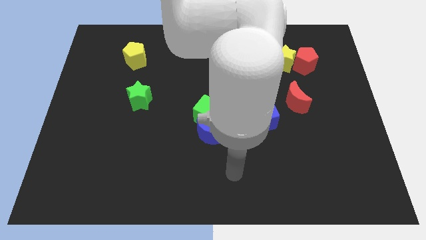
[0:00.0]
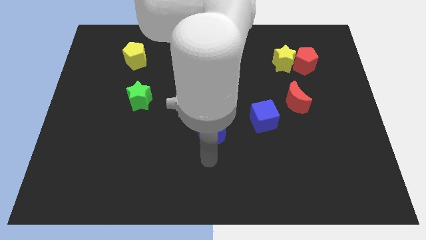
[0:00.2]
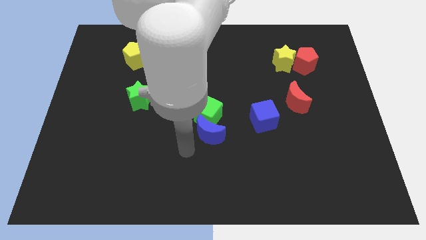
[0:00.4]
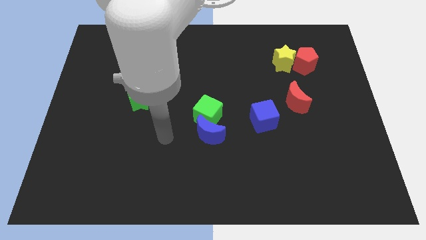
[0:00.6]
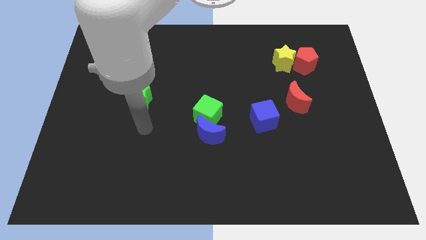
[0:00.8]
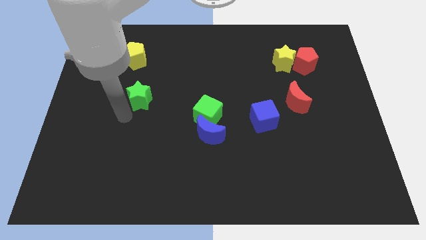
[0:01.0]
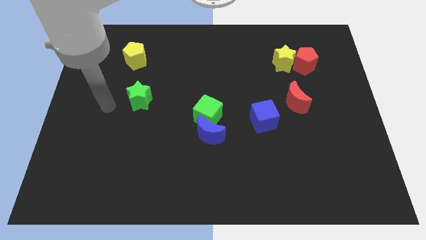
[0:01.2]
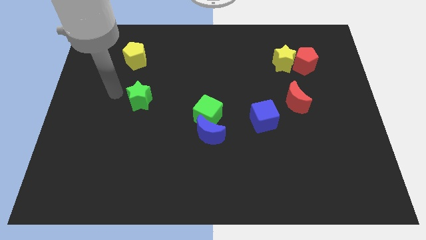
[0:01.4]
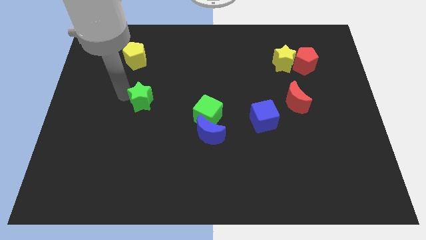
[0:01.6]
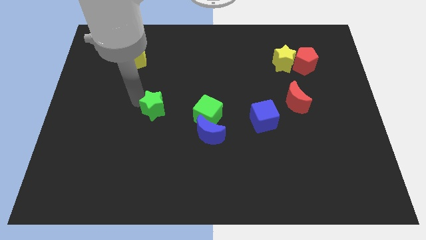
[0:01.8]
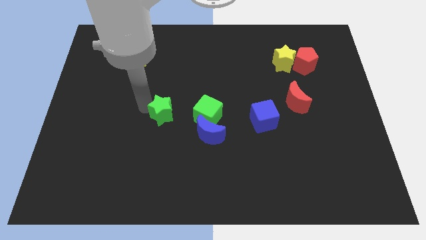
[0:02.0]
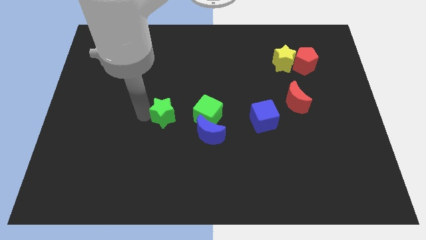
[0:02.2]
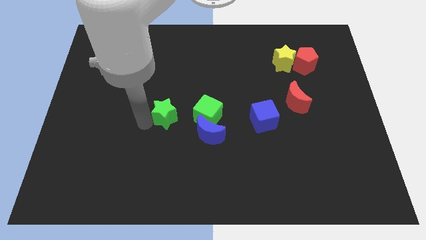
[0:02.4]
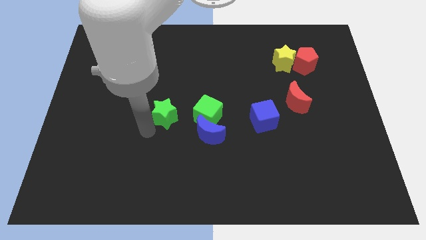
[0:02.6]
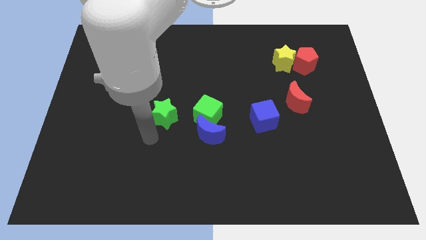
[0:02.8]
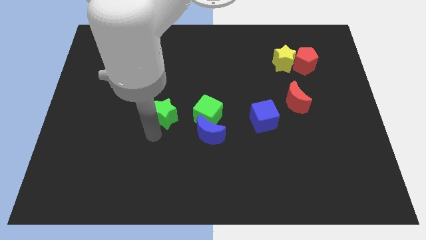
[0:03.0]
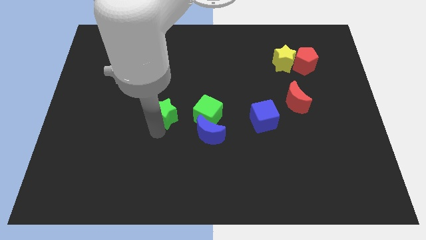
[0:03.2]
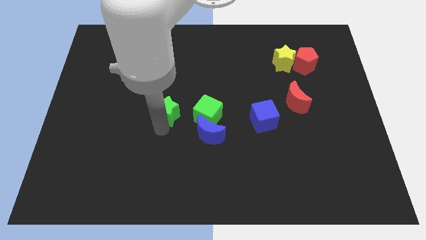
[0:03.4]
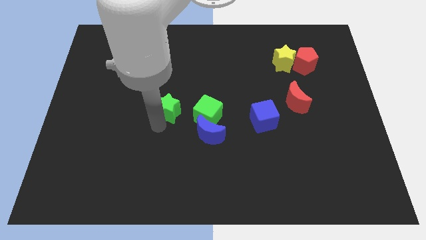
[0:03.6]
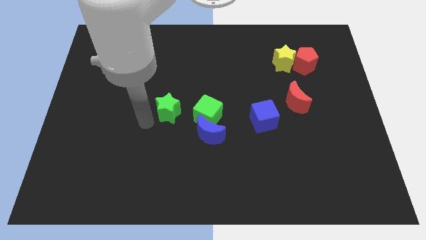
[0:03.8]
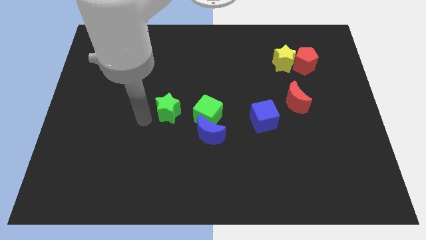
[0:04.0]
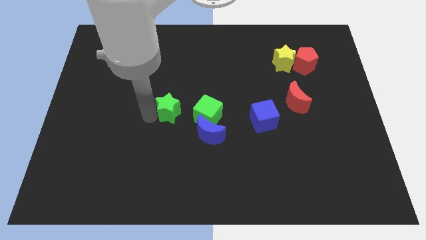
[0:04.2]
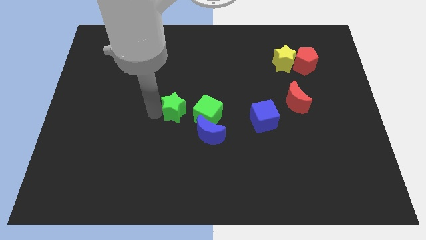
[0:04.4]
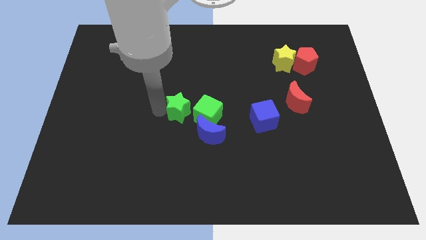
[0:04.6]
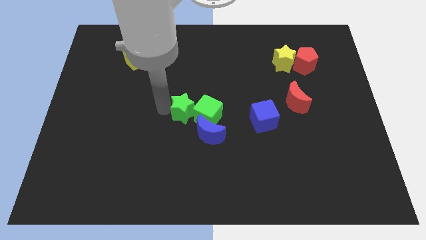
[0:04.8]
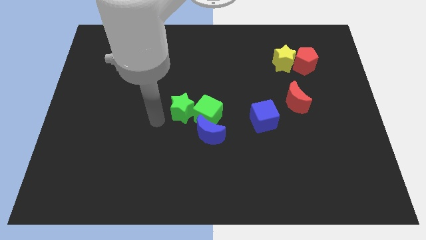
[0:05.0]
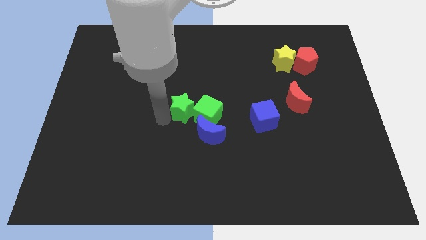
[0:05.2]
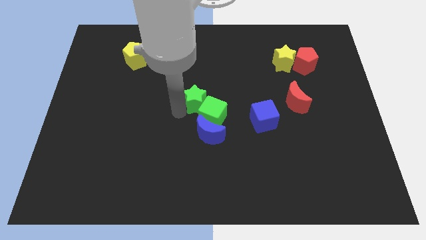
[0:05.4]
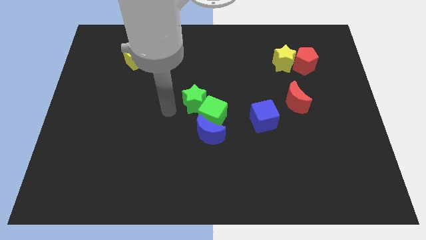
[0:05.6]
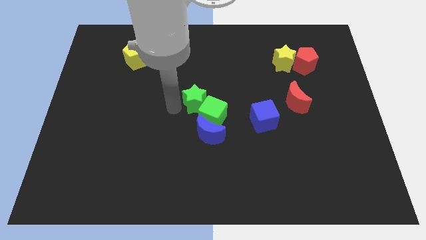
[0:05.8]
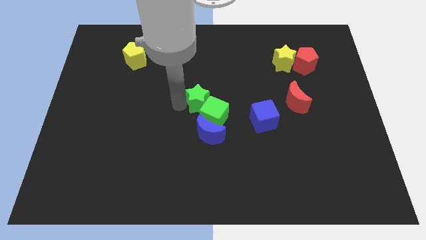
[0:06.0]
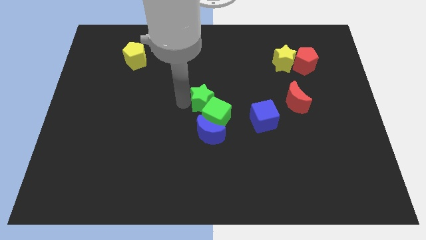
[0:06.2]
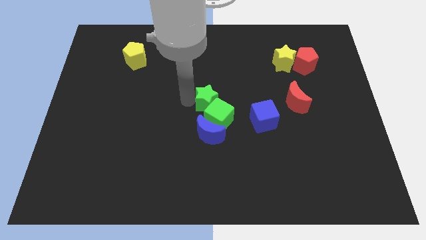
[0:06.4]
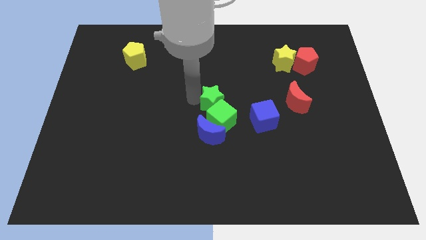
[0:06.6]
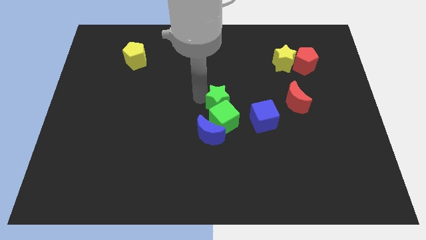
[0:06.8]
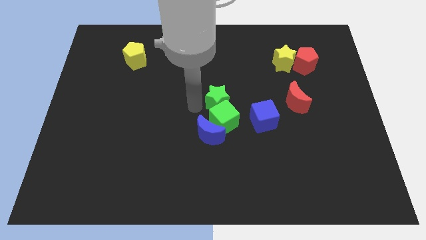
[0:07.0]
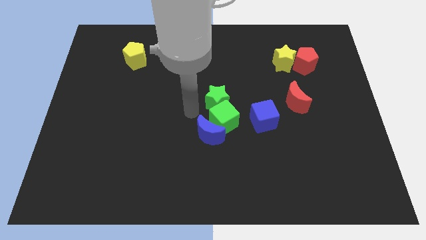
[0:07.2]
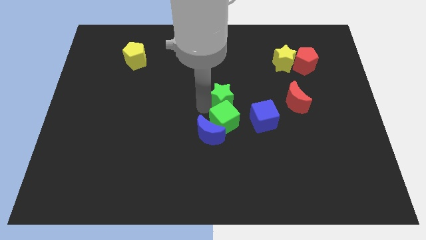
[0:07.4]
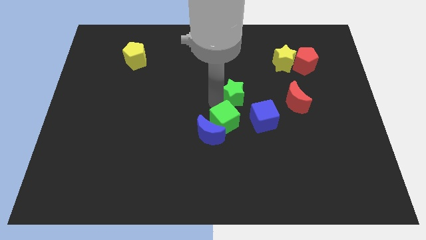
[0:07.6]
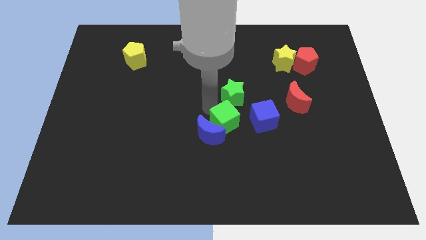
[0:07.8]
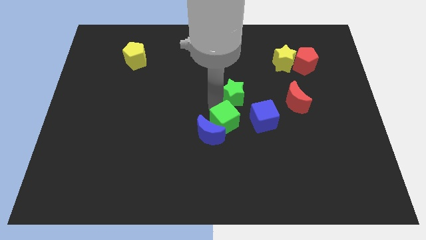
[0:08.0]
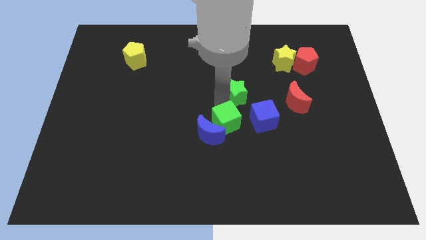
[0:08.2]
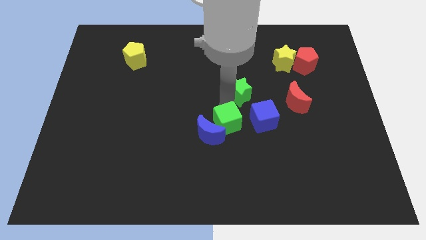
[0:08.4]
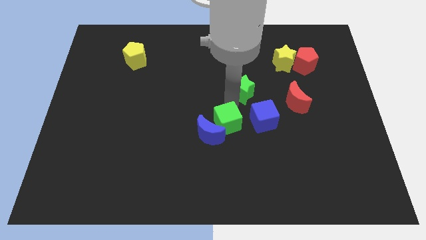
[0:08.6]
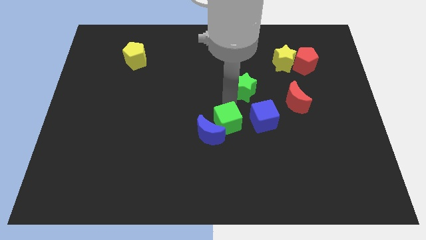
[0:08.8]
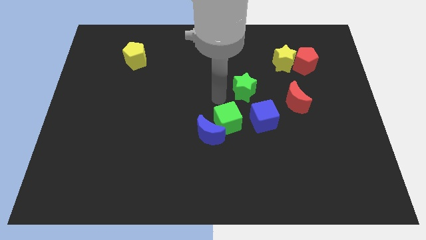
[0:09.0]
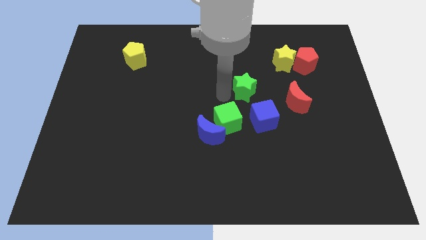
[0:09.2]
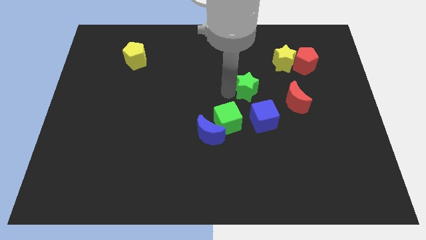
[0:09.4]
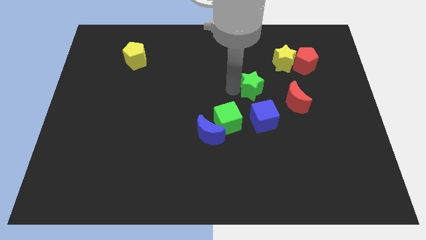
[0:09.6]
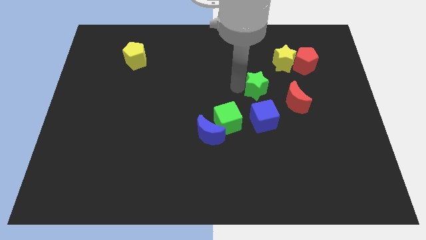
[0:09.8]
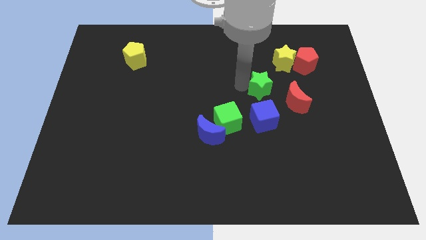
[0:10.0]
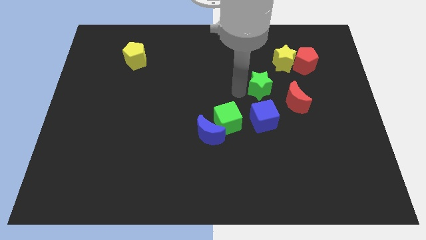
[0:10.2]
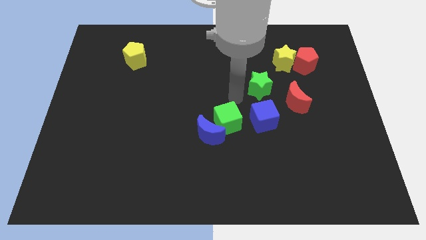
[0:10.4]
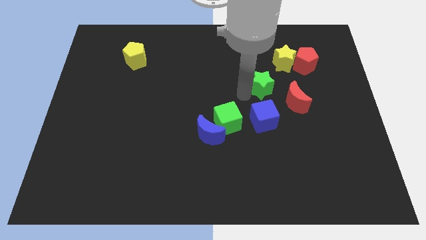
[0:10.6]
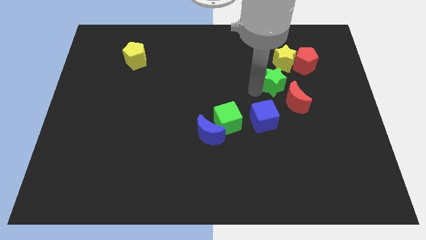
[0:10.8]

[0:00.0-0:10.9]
move the green star diagonally down and to the left of the red pentagon

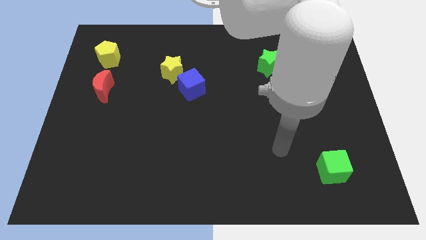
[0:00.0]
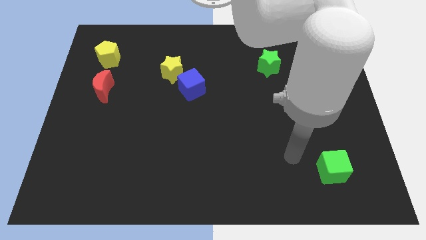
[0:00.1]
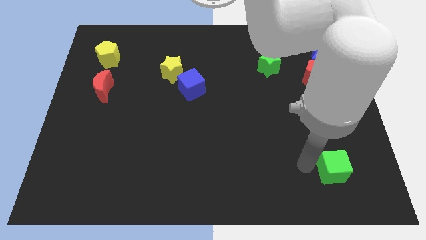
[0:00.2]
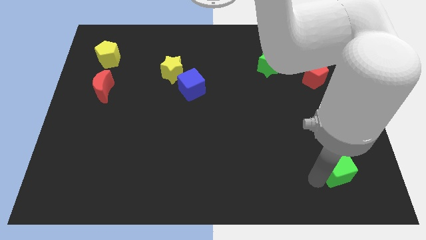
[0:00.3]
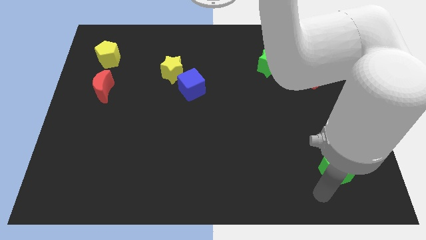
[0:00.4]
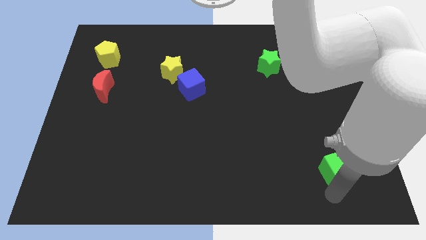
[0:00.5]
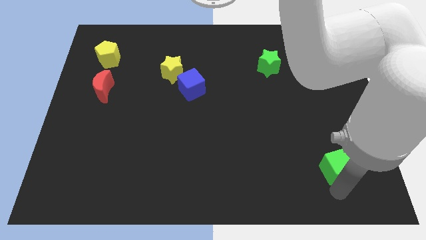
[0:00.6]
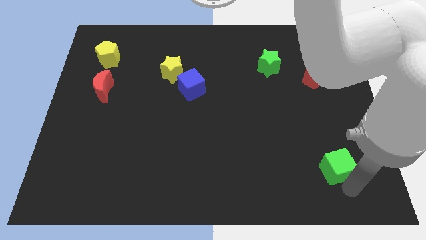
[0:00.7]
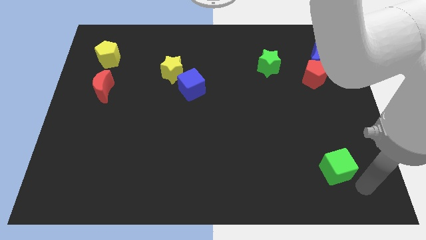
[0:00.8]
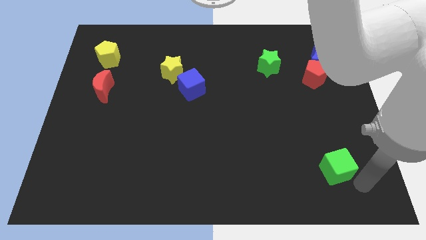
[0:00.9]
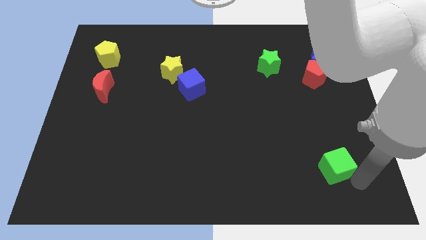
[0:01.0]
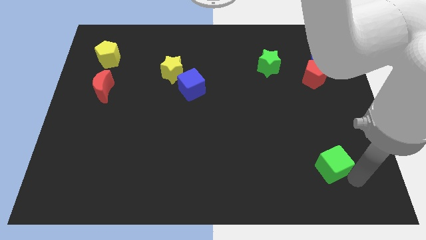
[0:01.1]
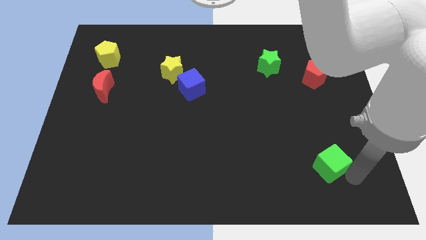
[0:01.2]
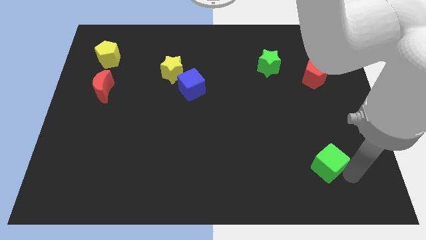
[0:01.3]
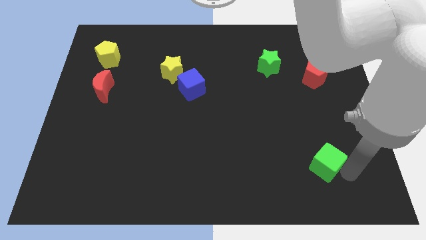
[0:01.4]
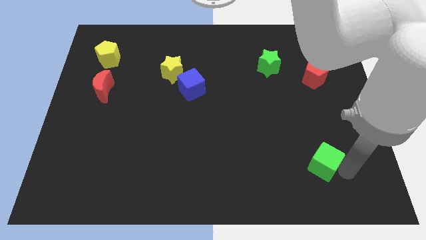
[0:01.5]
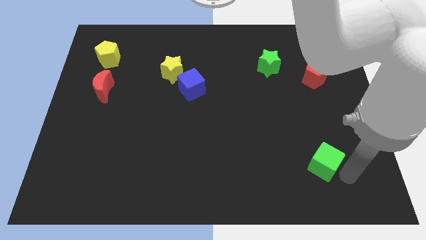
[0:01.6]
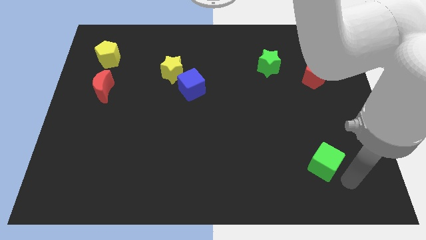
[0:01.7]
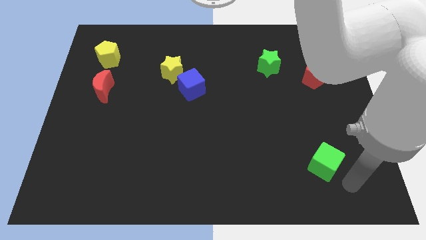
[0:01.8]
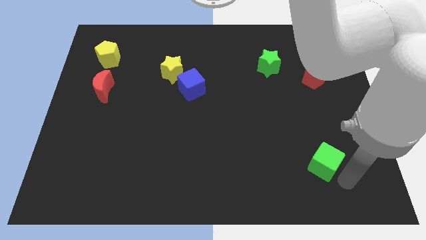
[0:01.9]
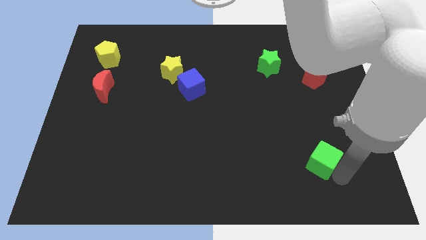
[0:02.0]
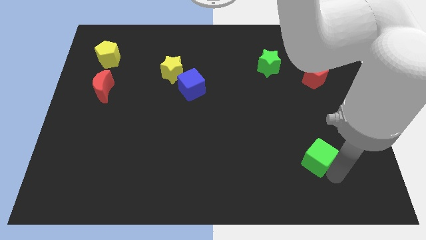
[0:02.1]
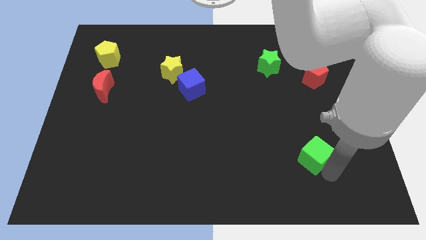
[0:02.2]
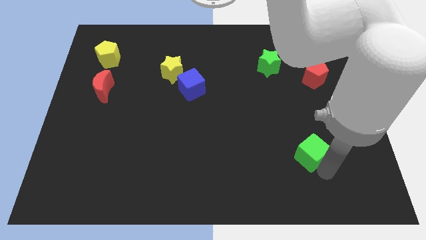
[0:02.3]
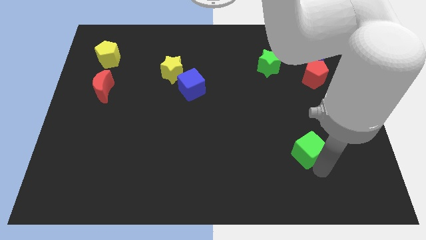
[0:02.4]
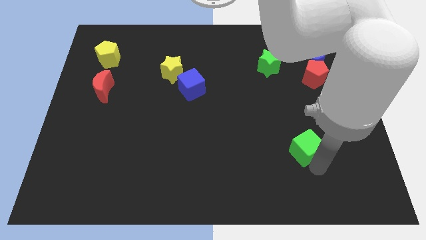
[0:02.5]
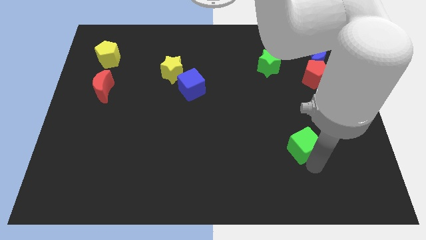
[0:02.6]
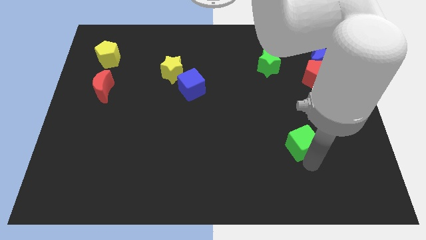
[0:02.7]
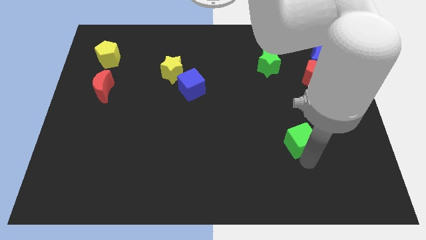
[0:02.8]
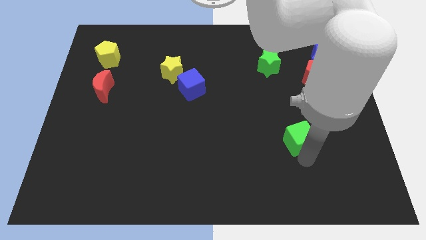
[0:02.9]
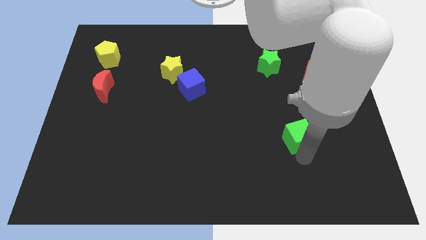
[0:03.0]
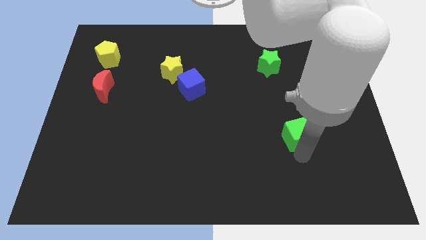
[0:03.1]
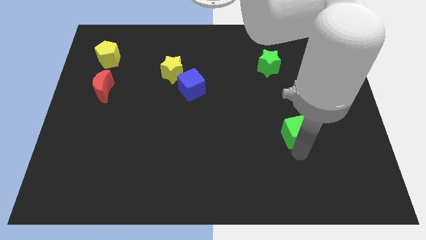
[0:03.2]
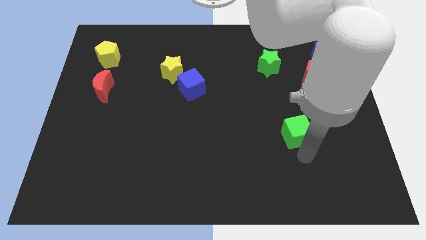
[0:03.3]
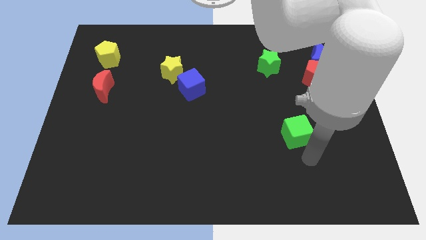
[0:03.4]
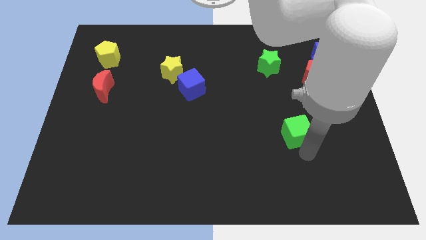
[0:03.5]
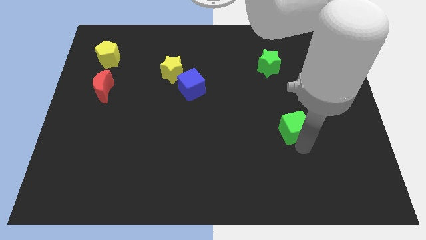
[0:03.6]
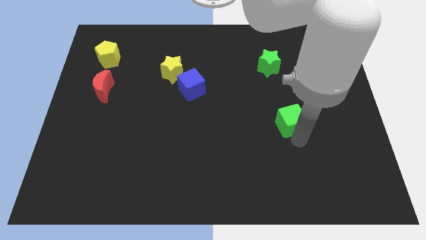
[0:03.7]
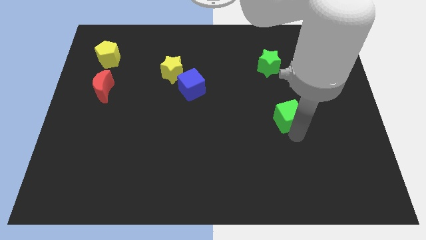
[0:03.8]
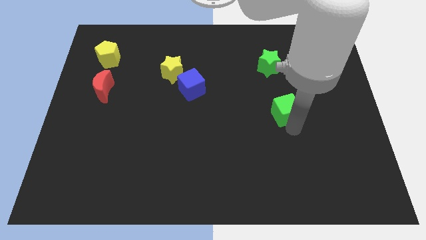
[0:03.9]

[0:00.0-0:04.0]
move the green cube to the bottom of the green star
